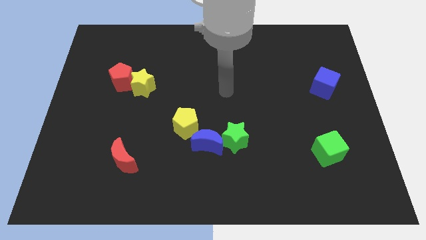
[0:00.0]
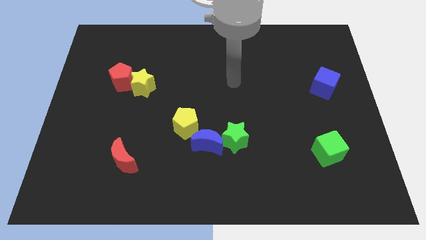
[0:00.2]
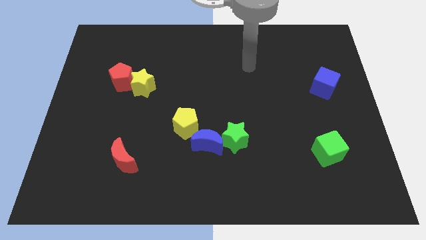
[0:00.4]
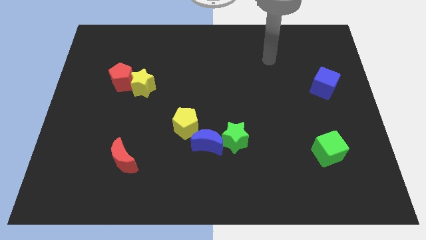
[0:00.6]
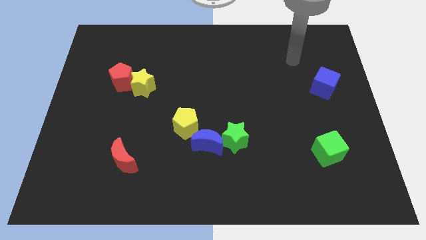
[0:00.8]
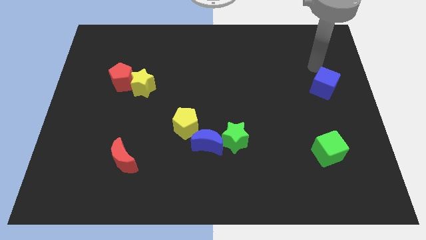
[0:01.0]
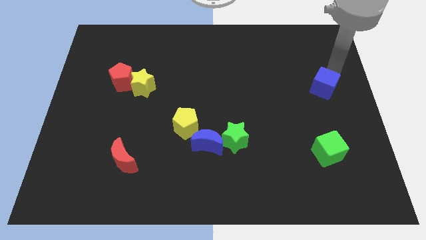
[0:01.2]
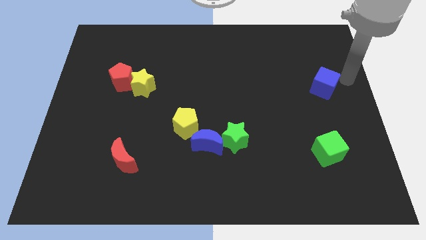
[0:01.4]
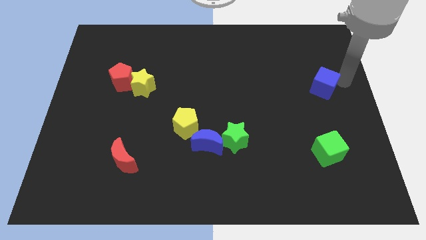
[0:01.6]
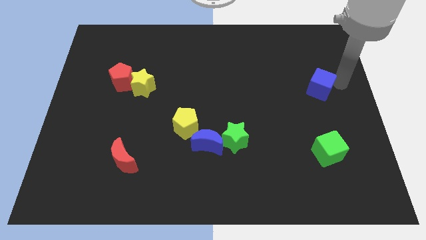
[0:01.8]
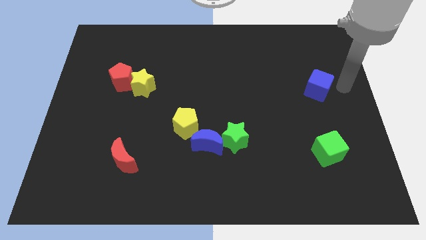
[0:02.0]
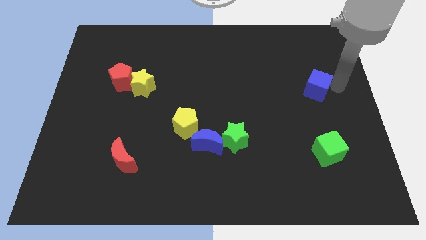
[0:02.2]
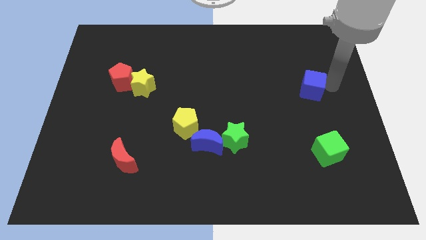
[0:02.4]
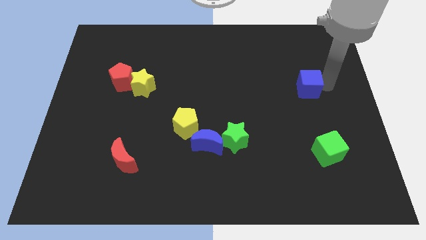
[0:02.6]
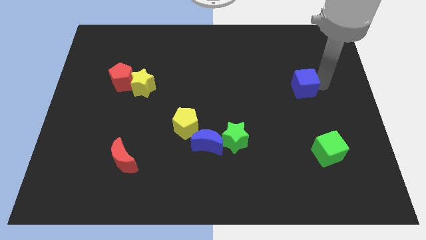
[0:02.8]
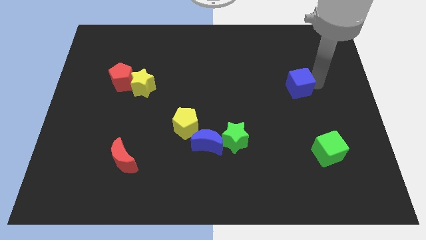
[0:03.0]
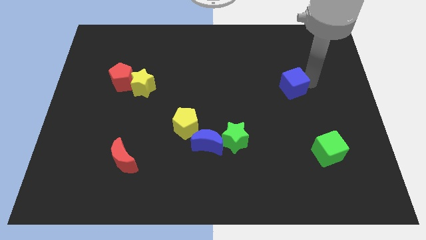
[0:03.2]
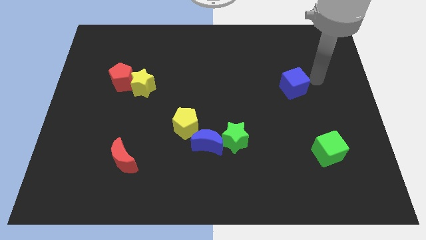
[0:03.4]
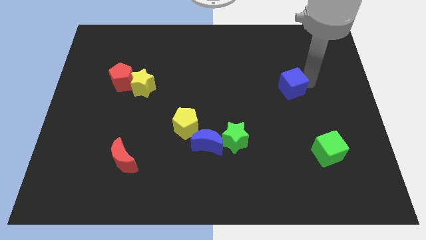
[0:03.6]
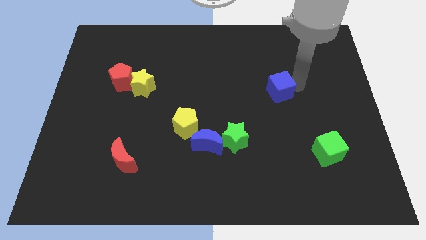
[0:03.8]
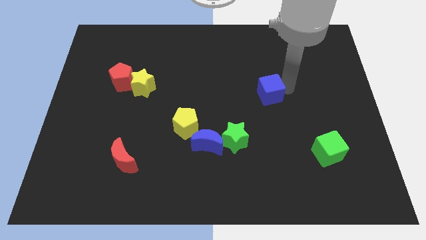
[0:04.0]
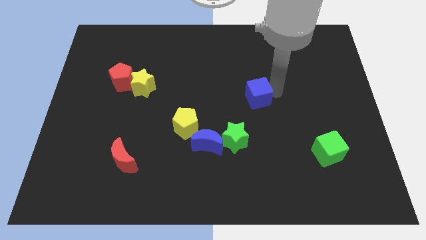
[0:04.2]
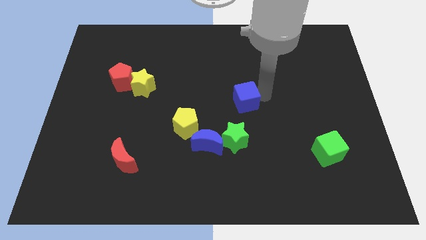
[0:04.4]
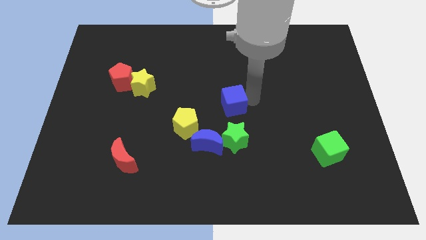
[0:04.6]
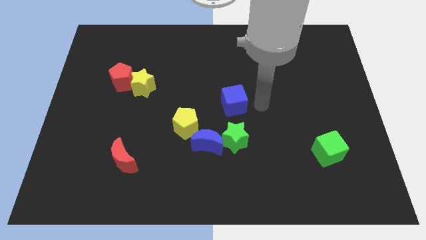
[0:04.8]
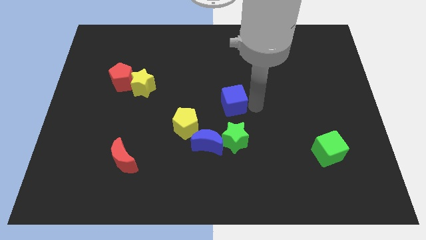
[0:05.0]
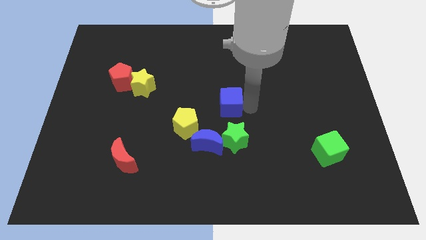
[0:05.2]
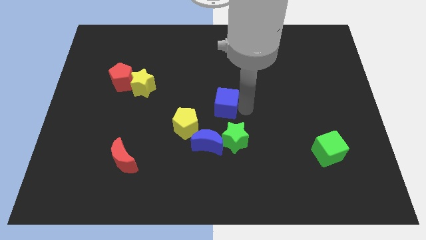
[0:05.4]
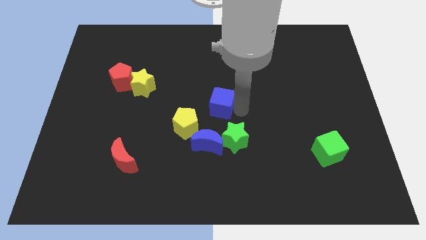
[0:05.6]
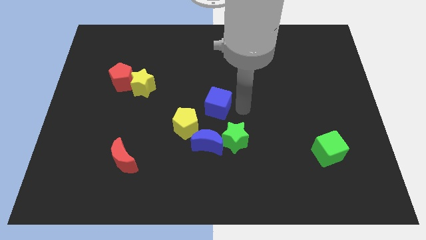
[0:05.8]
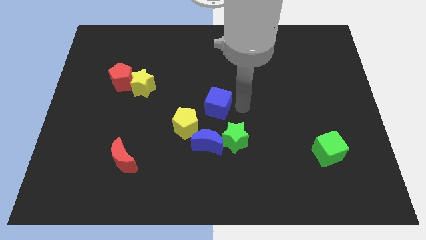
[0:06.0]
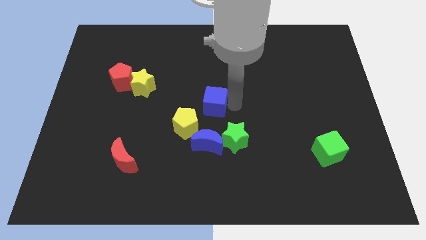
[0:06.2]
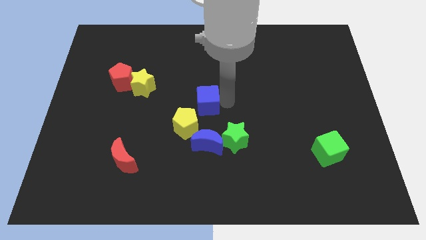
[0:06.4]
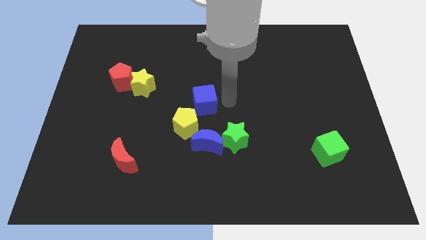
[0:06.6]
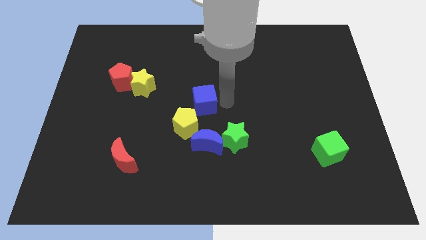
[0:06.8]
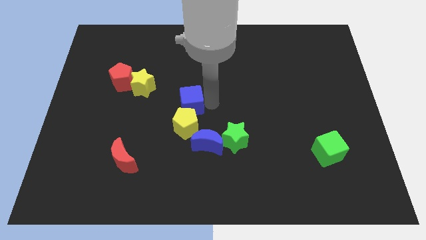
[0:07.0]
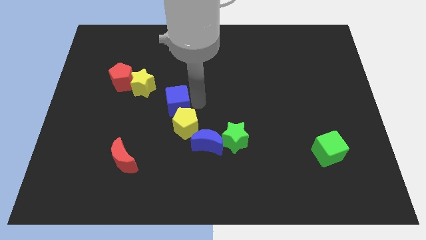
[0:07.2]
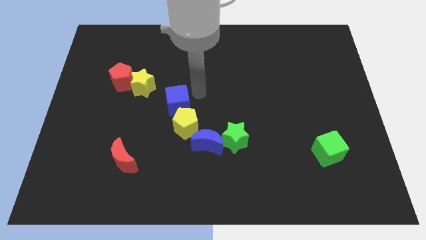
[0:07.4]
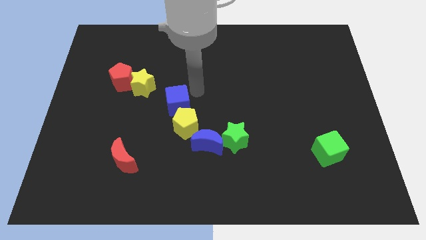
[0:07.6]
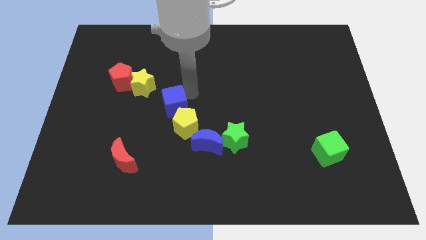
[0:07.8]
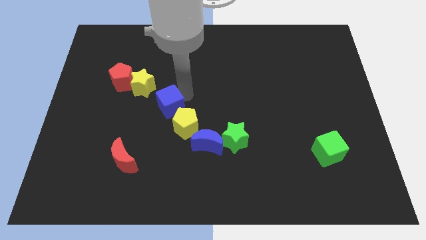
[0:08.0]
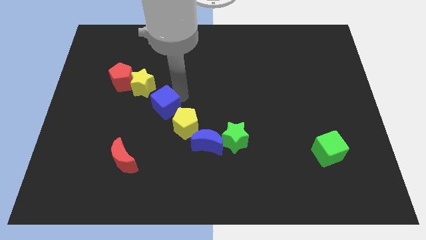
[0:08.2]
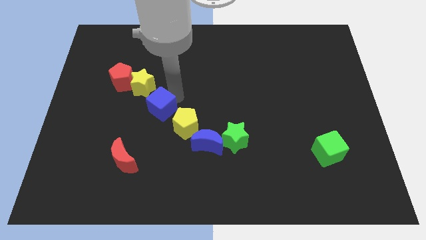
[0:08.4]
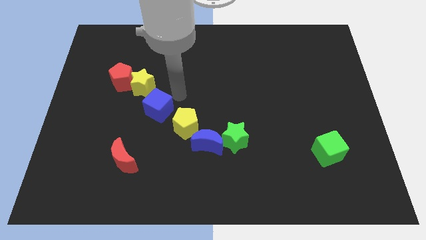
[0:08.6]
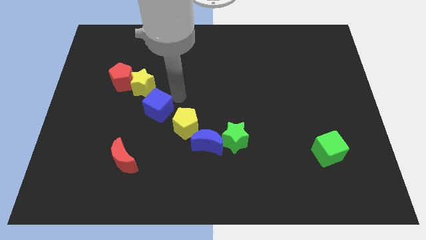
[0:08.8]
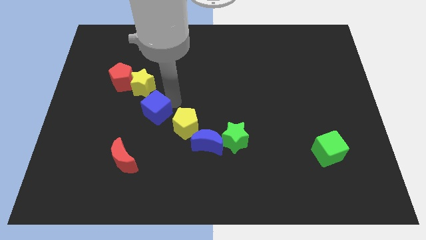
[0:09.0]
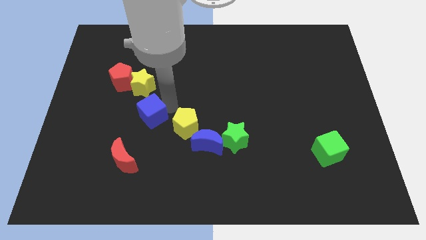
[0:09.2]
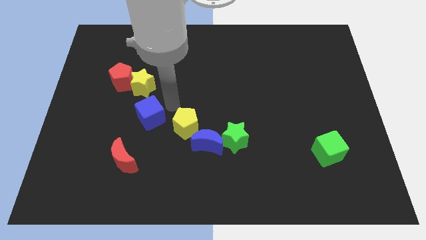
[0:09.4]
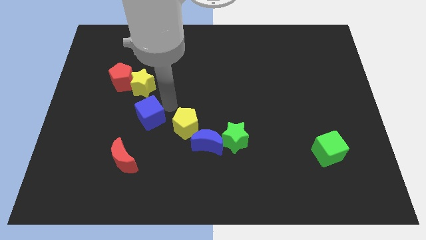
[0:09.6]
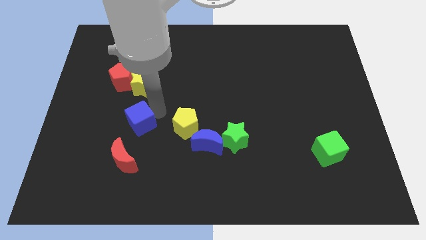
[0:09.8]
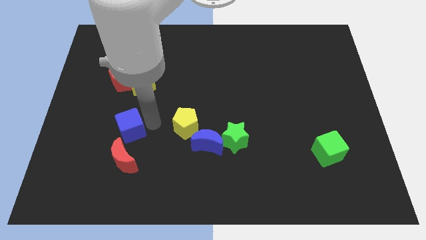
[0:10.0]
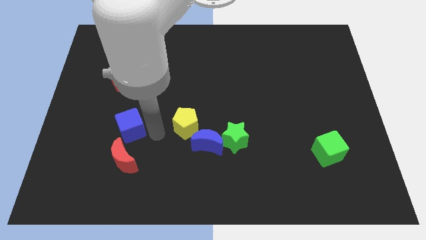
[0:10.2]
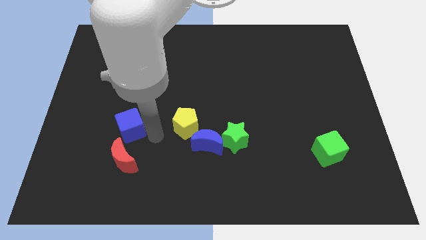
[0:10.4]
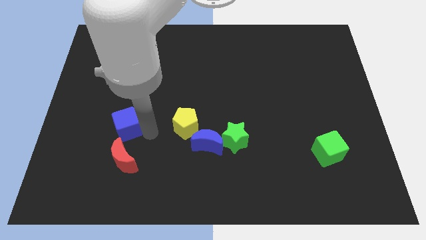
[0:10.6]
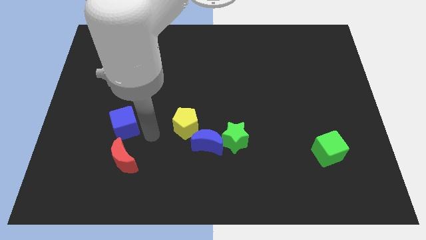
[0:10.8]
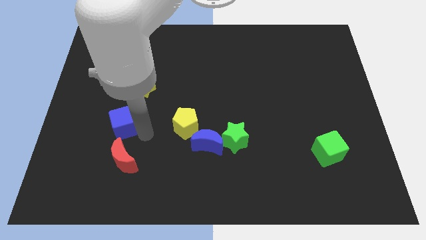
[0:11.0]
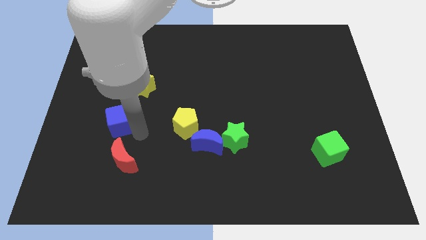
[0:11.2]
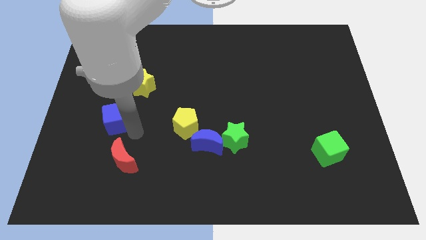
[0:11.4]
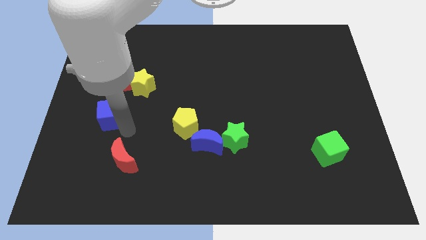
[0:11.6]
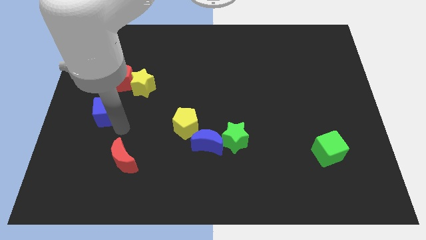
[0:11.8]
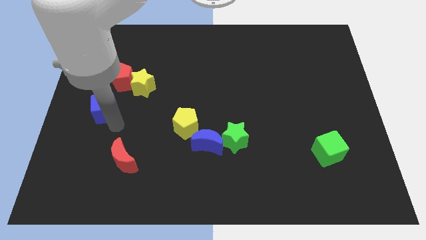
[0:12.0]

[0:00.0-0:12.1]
put the blue cube to the left side

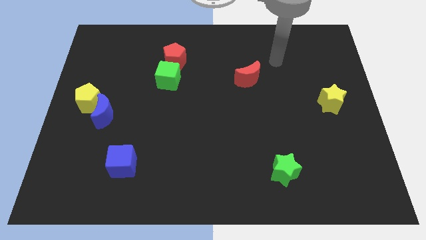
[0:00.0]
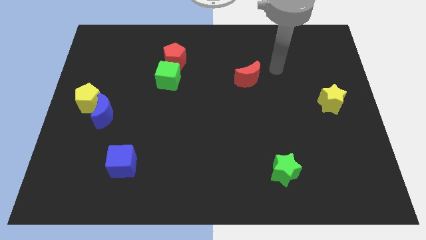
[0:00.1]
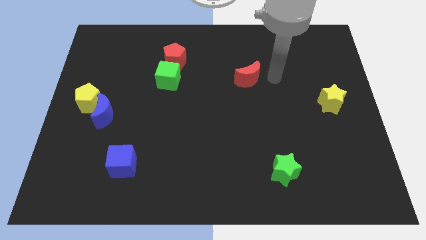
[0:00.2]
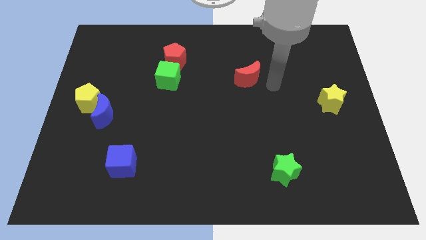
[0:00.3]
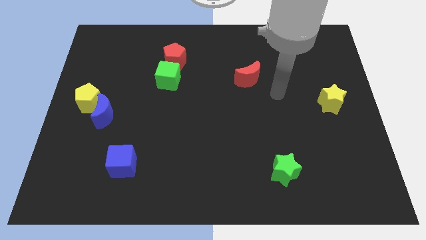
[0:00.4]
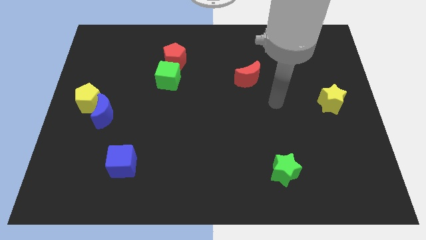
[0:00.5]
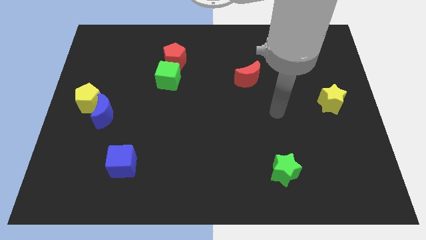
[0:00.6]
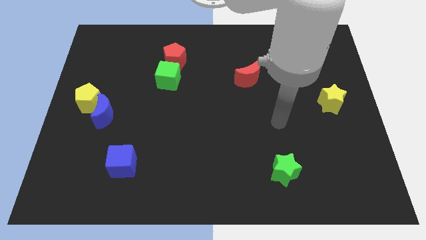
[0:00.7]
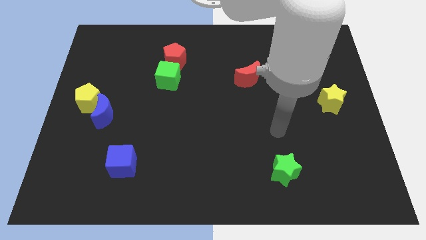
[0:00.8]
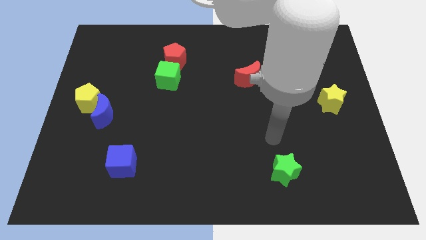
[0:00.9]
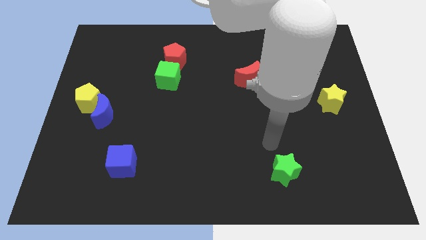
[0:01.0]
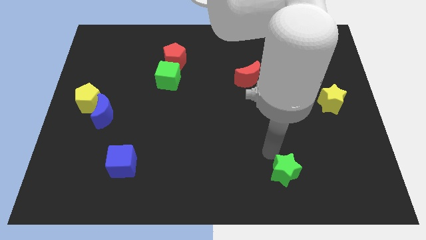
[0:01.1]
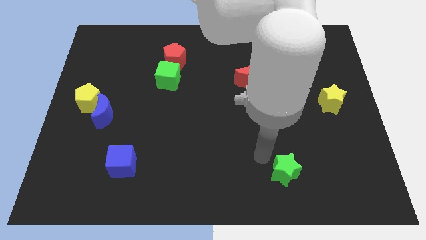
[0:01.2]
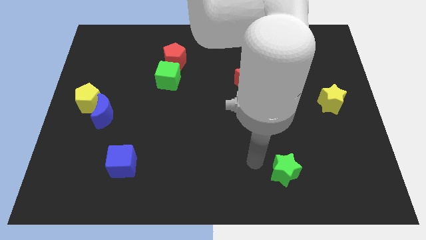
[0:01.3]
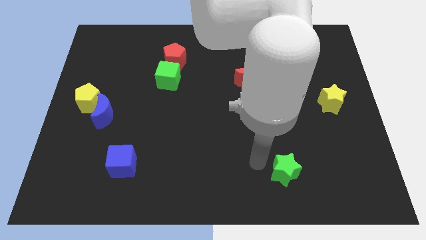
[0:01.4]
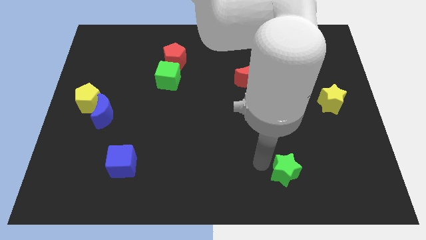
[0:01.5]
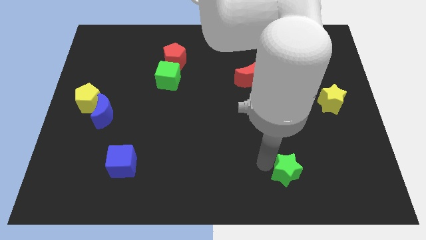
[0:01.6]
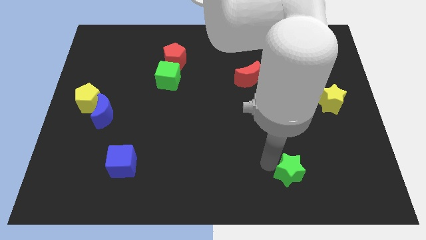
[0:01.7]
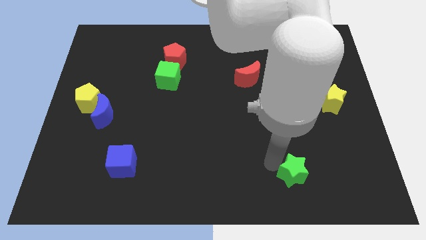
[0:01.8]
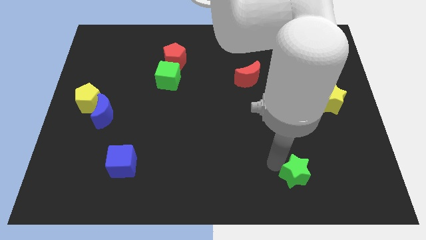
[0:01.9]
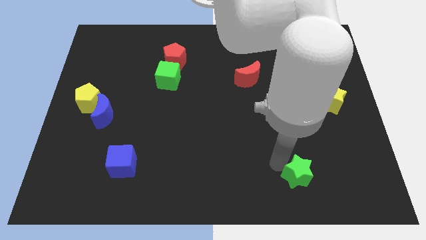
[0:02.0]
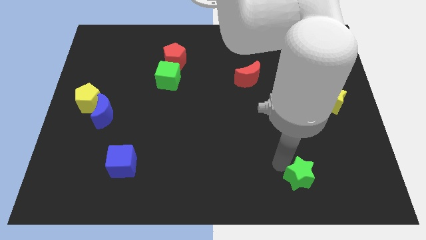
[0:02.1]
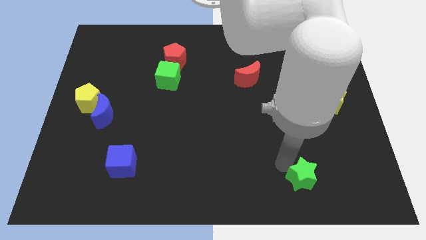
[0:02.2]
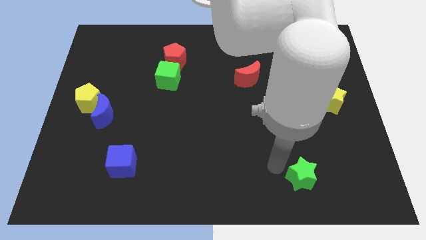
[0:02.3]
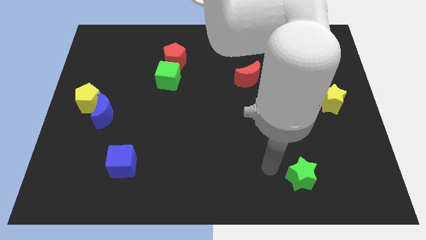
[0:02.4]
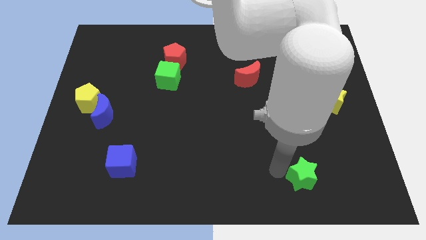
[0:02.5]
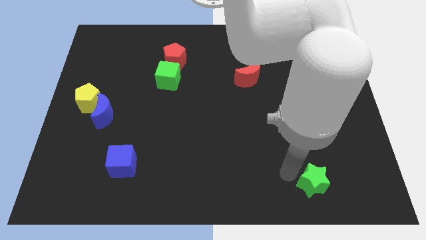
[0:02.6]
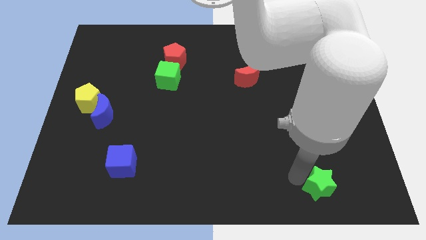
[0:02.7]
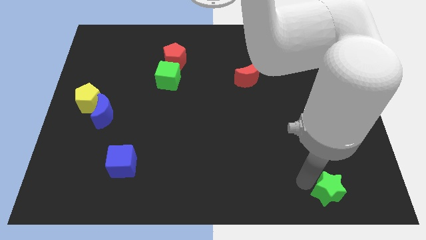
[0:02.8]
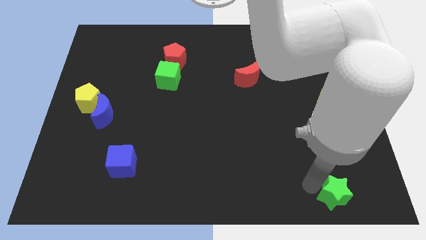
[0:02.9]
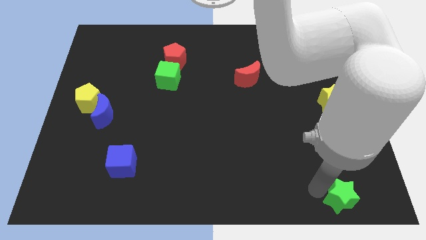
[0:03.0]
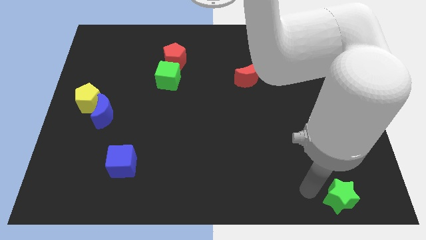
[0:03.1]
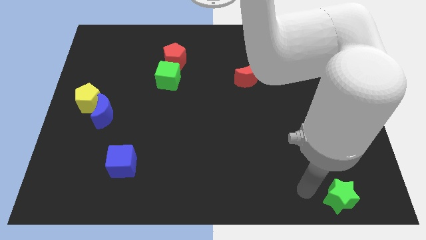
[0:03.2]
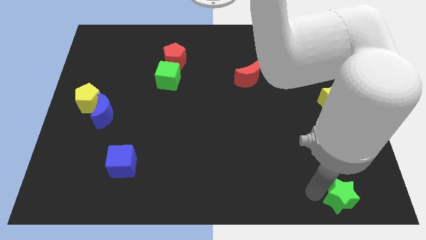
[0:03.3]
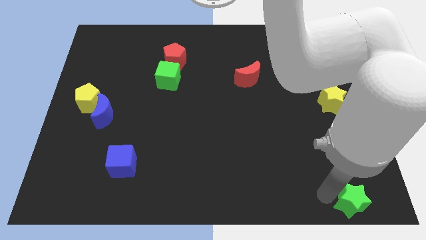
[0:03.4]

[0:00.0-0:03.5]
put the green star to the lower right corner
